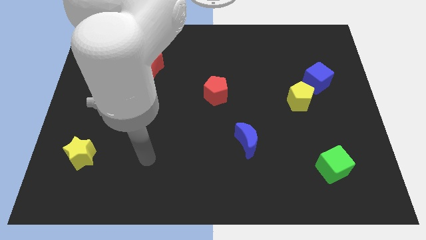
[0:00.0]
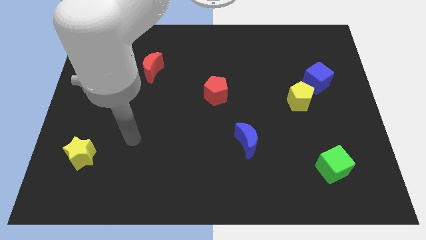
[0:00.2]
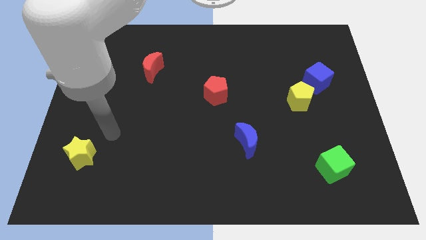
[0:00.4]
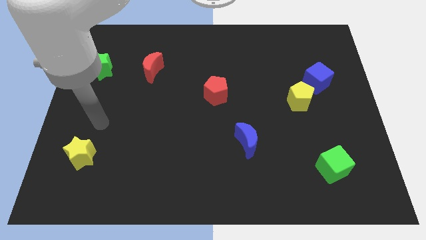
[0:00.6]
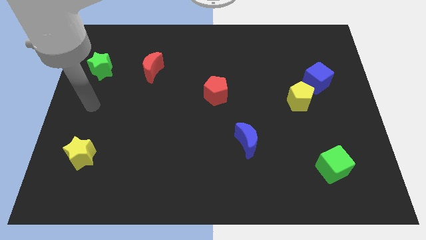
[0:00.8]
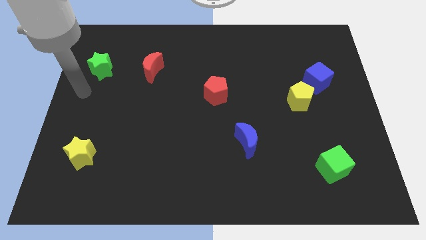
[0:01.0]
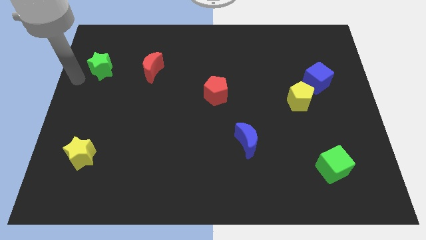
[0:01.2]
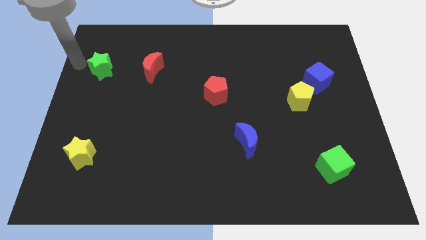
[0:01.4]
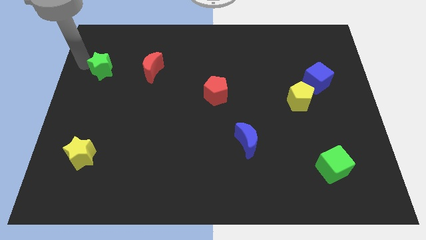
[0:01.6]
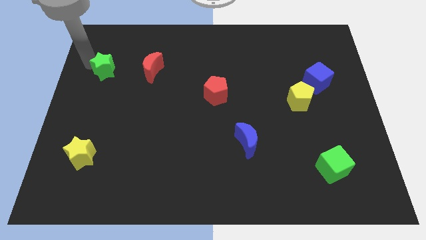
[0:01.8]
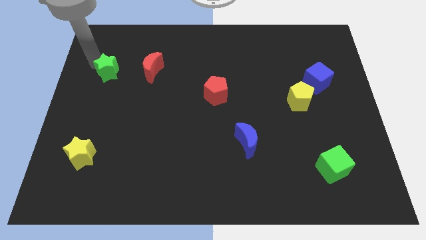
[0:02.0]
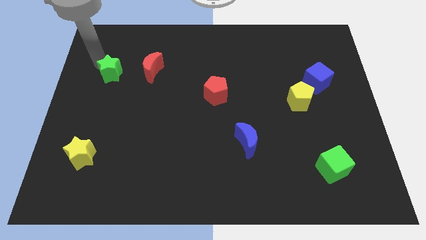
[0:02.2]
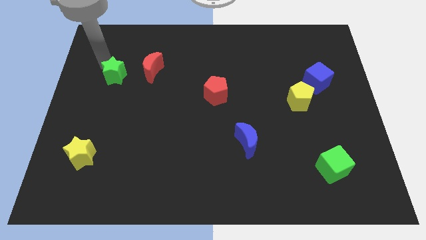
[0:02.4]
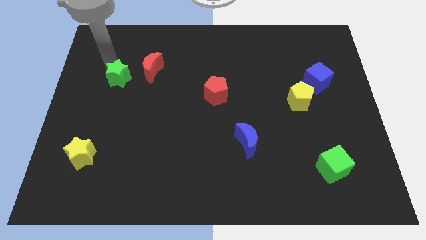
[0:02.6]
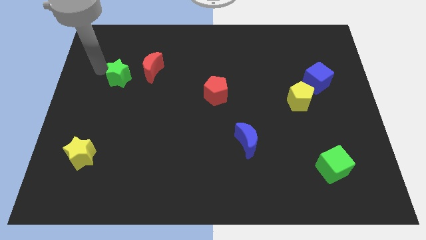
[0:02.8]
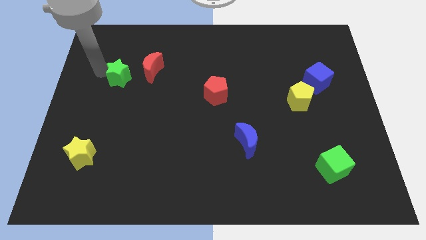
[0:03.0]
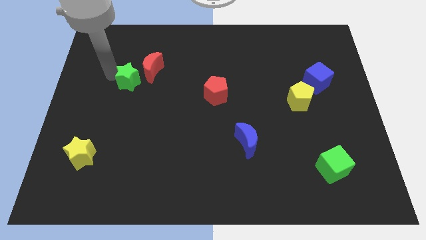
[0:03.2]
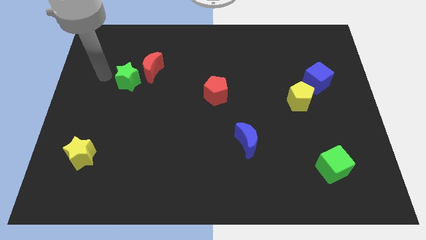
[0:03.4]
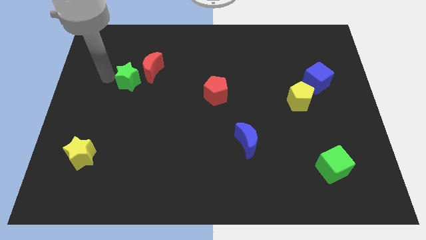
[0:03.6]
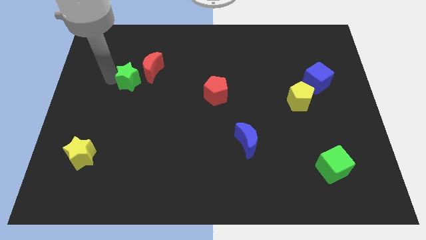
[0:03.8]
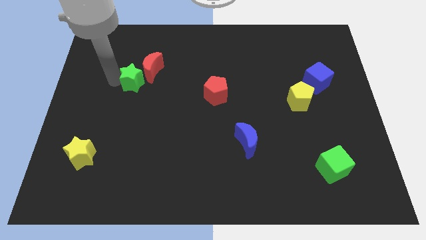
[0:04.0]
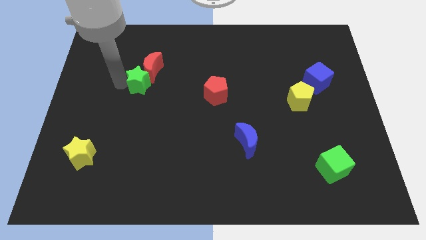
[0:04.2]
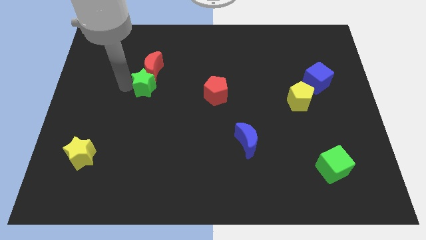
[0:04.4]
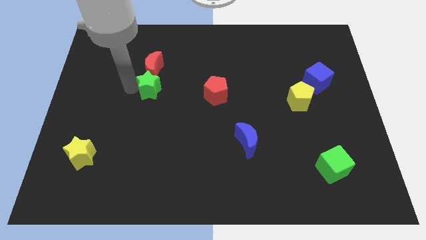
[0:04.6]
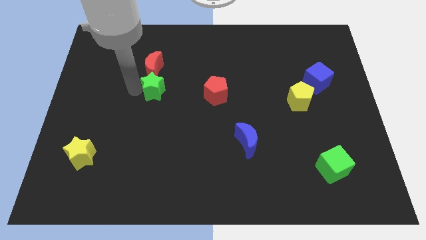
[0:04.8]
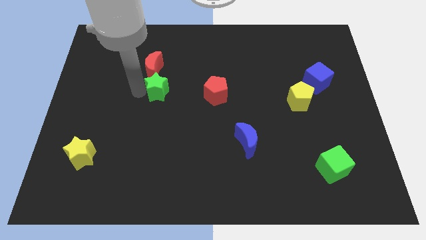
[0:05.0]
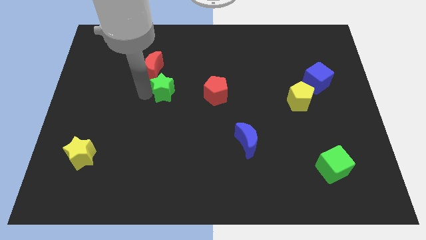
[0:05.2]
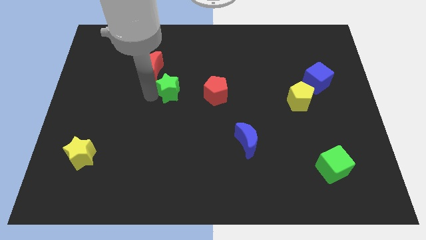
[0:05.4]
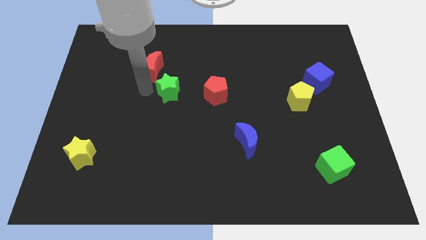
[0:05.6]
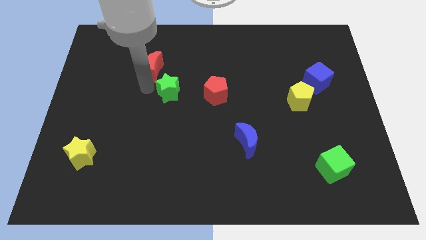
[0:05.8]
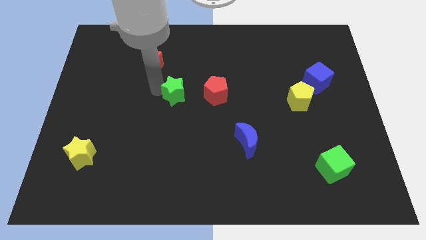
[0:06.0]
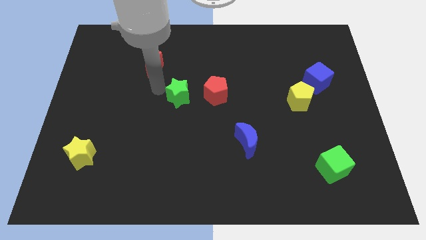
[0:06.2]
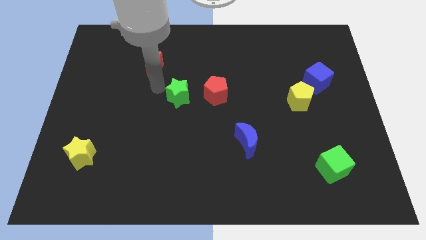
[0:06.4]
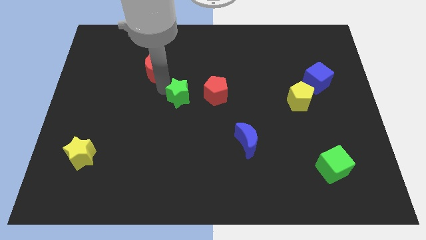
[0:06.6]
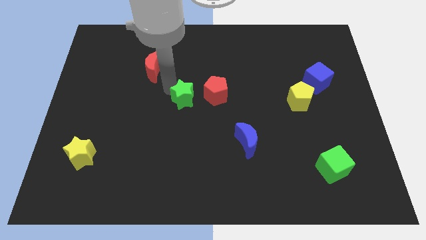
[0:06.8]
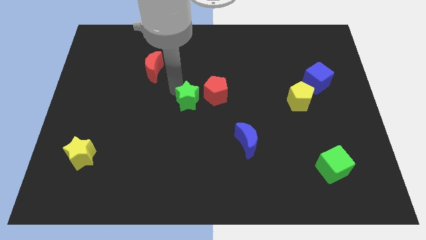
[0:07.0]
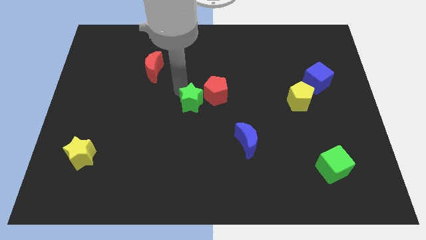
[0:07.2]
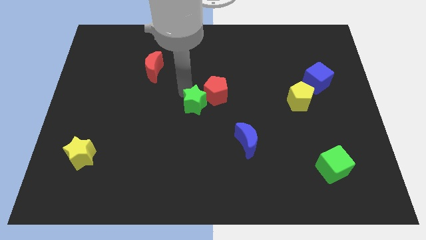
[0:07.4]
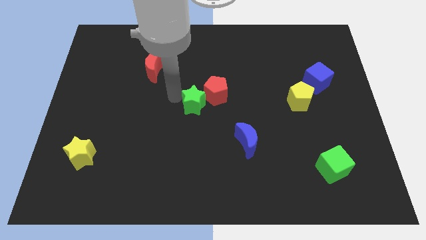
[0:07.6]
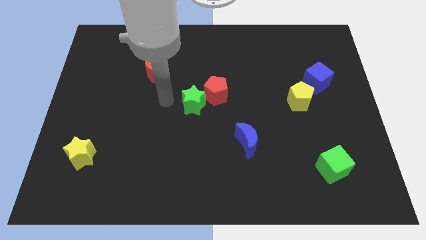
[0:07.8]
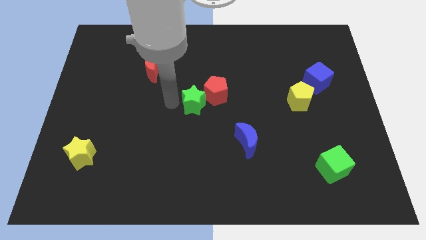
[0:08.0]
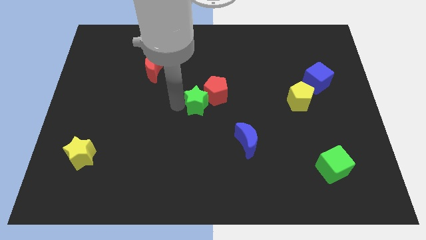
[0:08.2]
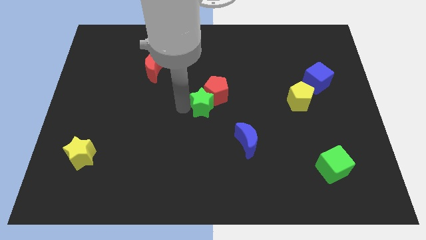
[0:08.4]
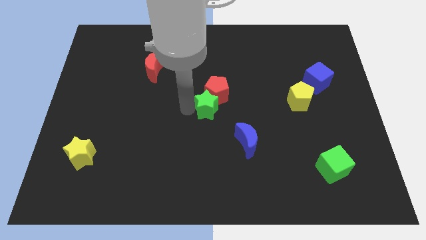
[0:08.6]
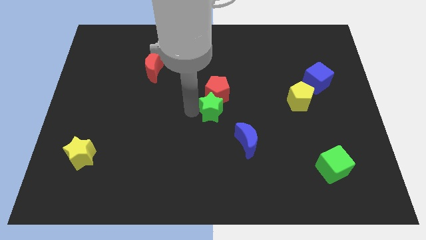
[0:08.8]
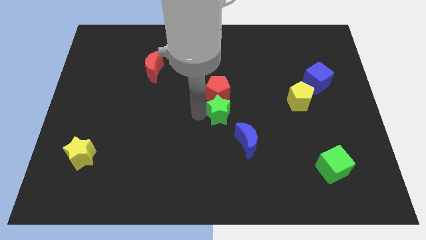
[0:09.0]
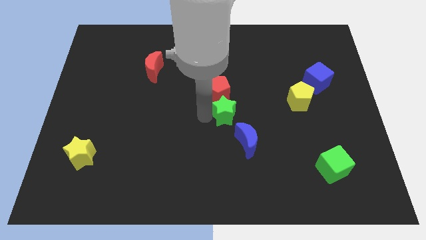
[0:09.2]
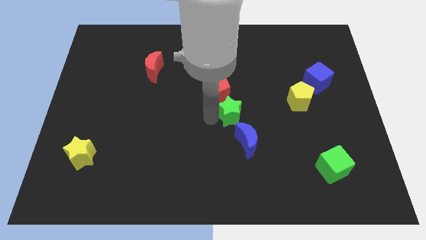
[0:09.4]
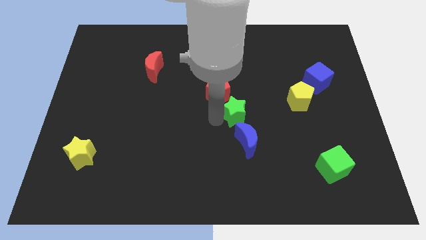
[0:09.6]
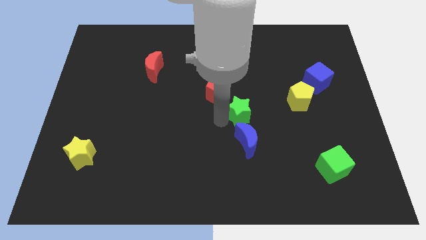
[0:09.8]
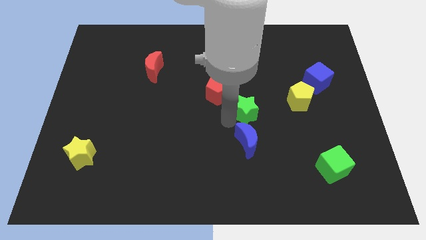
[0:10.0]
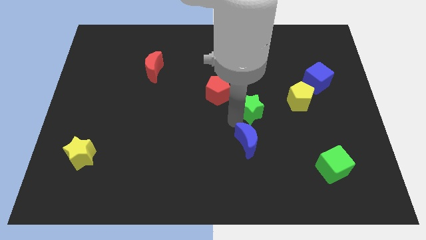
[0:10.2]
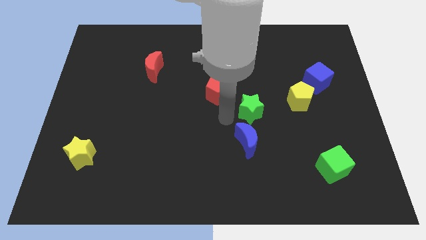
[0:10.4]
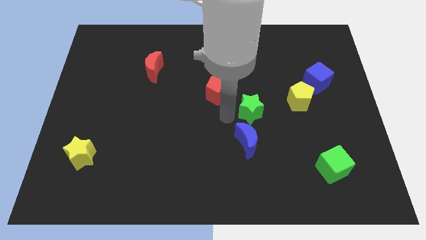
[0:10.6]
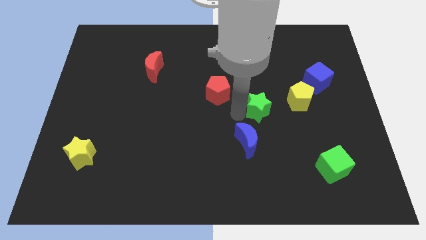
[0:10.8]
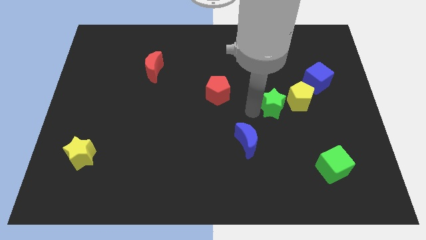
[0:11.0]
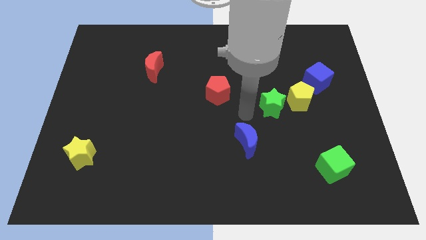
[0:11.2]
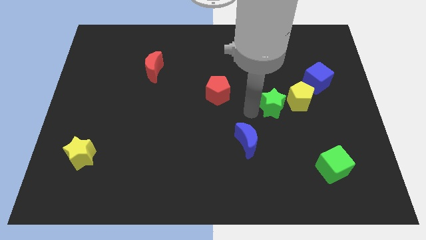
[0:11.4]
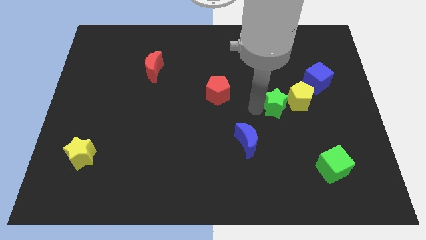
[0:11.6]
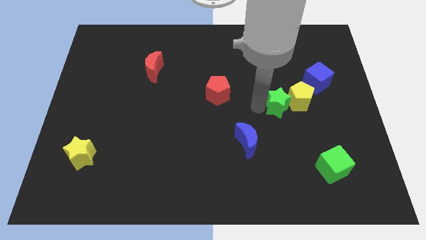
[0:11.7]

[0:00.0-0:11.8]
slide the green star close to the yellow pentagon
